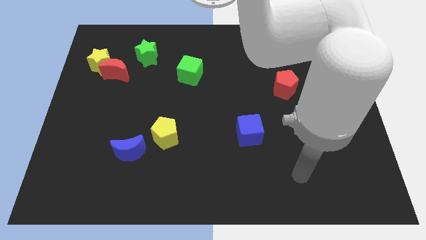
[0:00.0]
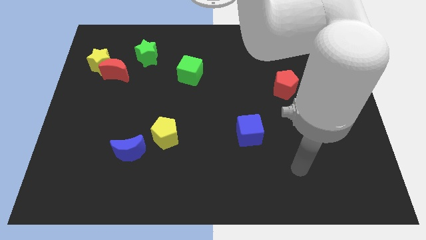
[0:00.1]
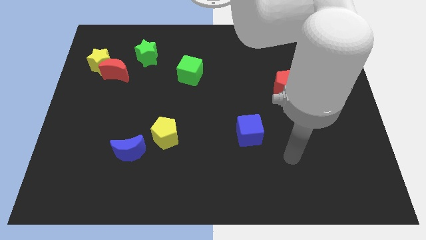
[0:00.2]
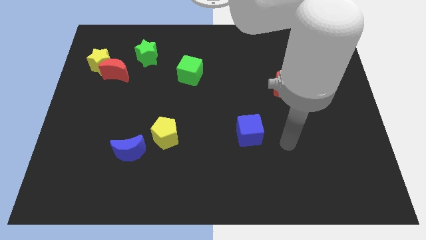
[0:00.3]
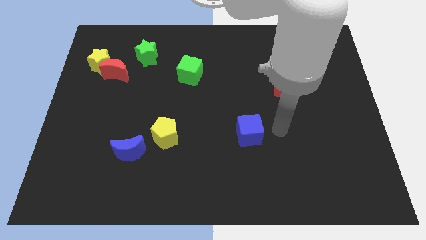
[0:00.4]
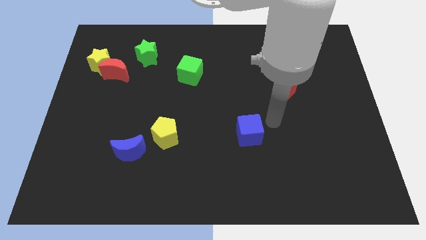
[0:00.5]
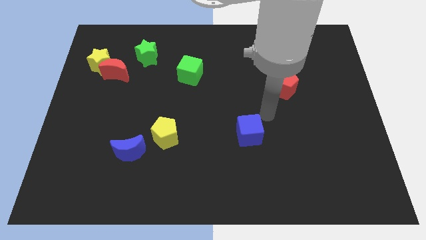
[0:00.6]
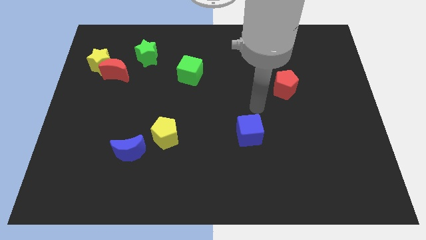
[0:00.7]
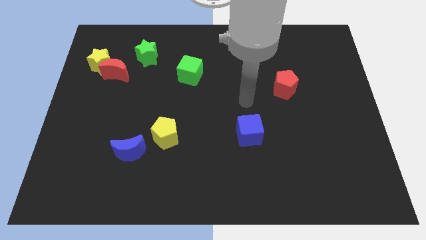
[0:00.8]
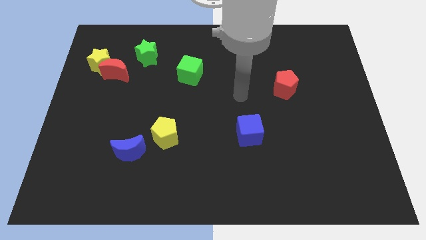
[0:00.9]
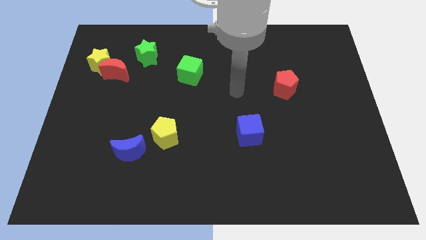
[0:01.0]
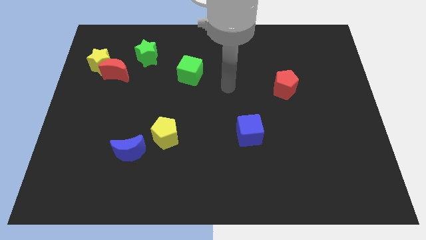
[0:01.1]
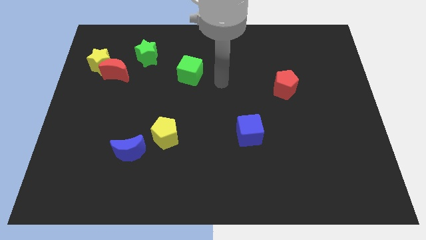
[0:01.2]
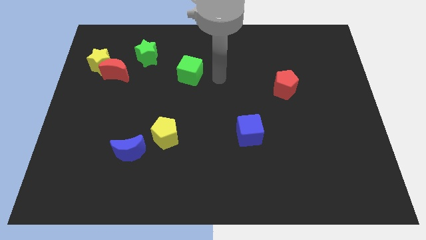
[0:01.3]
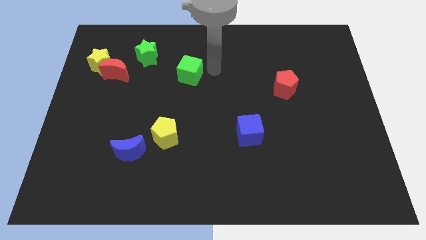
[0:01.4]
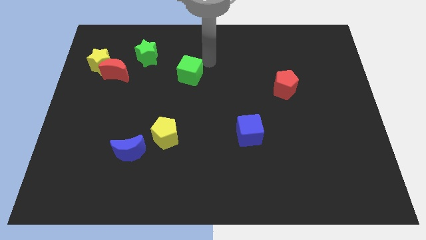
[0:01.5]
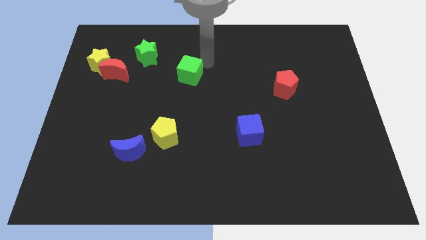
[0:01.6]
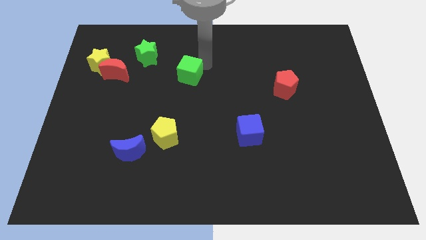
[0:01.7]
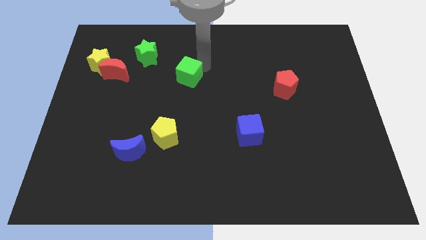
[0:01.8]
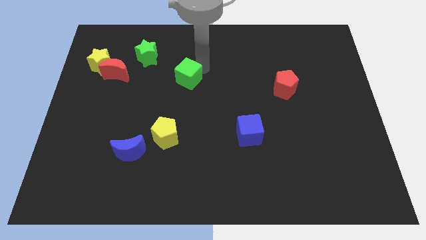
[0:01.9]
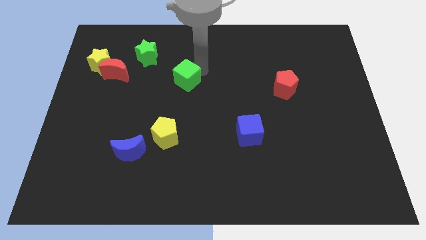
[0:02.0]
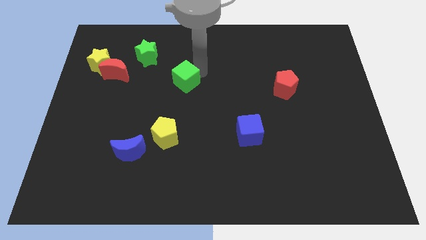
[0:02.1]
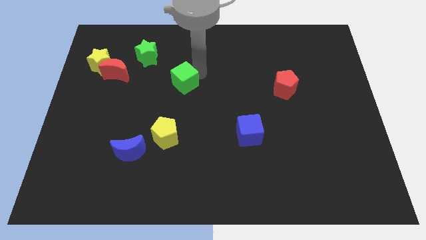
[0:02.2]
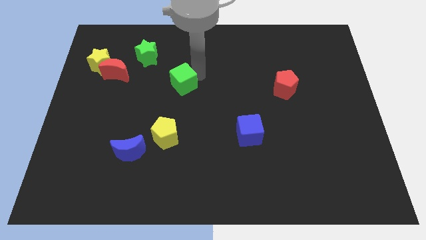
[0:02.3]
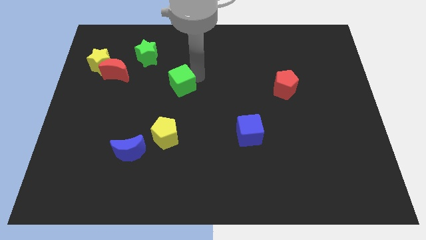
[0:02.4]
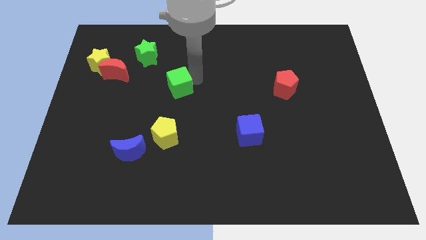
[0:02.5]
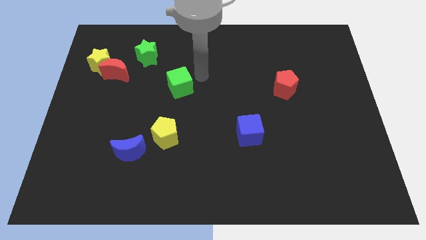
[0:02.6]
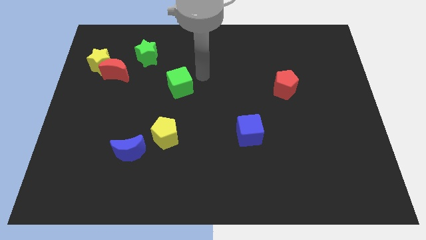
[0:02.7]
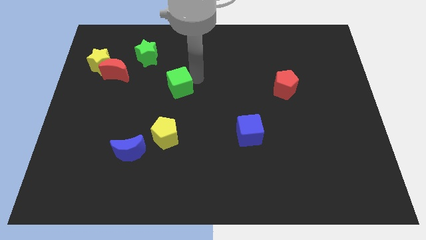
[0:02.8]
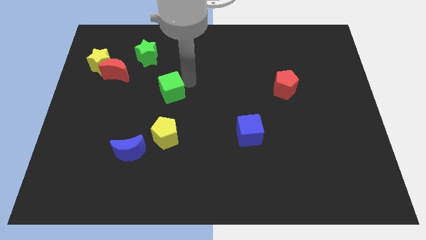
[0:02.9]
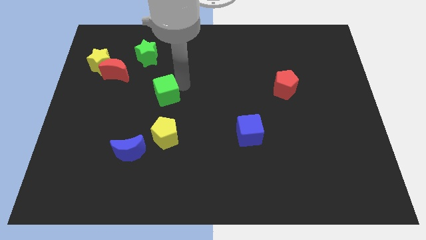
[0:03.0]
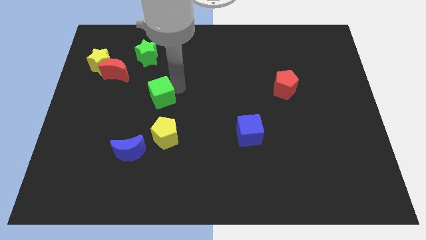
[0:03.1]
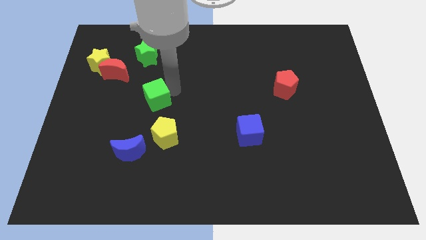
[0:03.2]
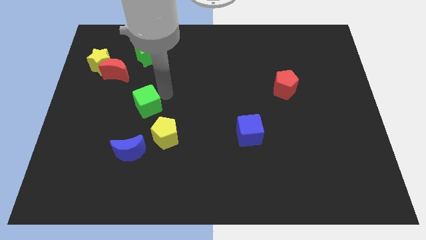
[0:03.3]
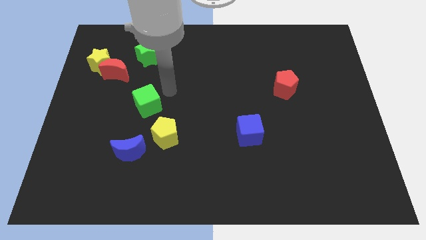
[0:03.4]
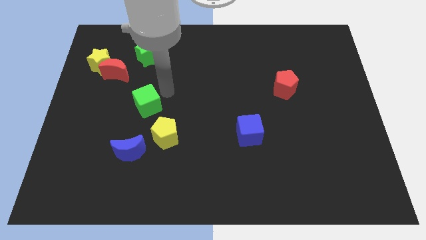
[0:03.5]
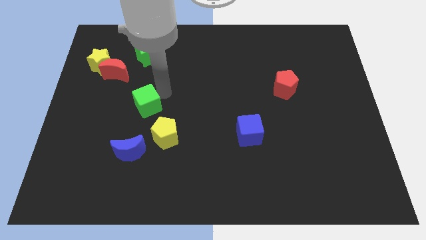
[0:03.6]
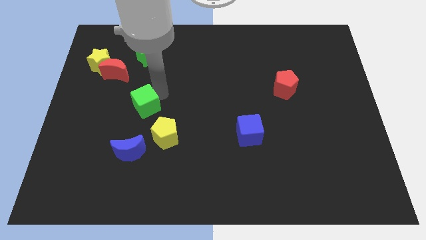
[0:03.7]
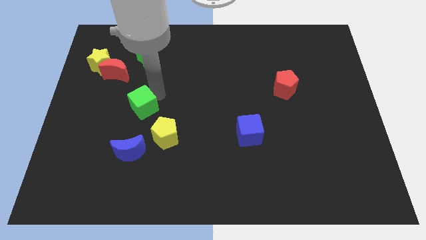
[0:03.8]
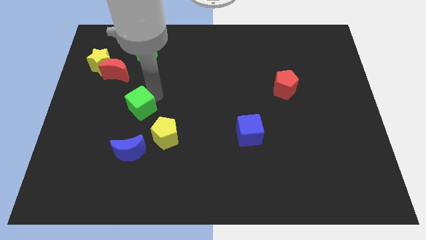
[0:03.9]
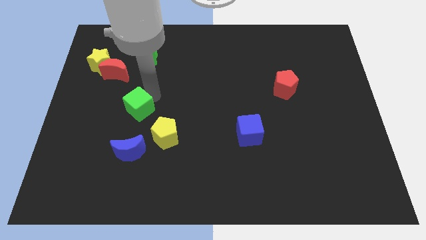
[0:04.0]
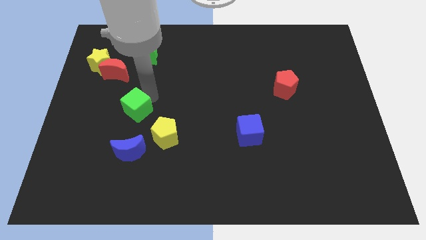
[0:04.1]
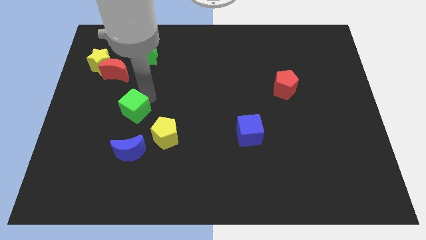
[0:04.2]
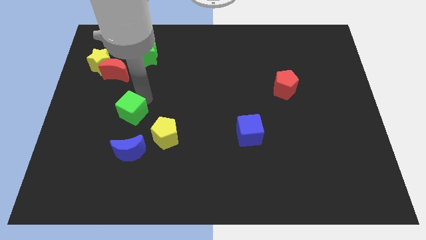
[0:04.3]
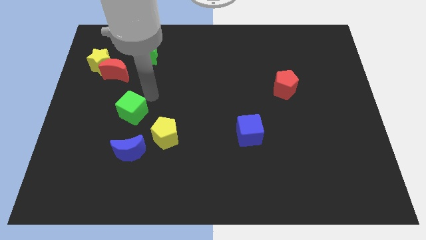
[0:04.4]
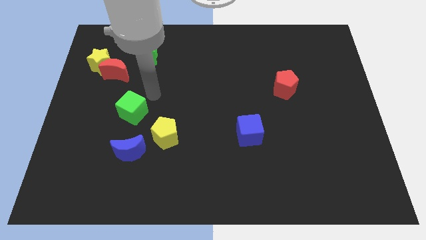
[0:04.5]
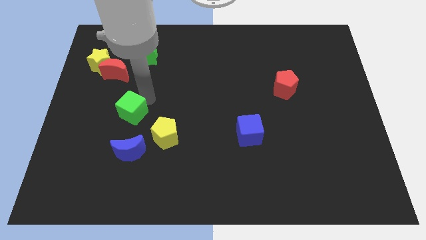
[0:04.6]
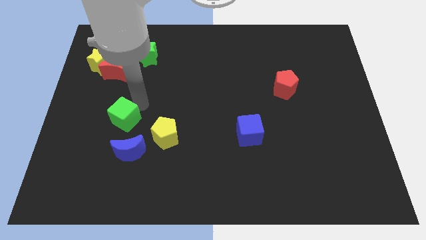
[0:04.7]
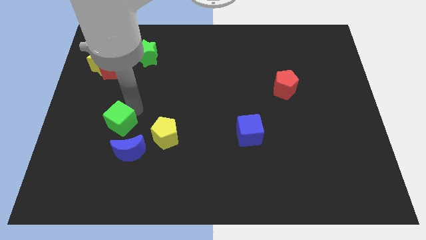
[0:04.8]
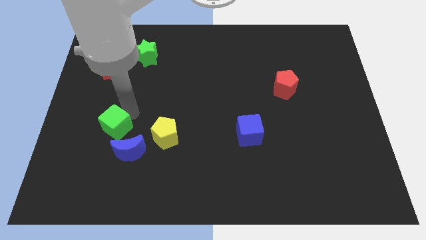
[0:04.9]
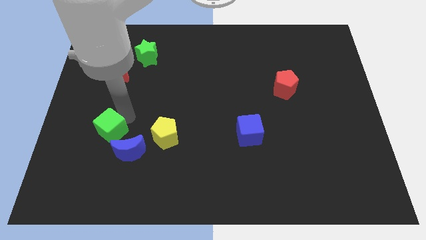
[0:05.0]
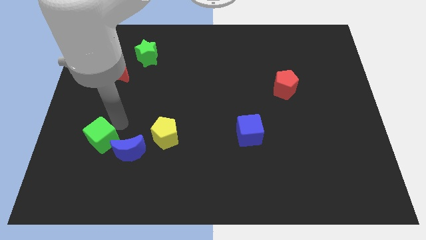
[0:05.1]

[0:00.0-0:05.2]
put the green cube left of the blue moon

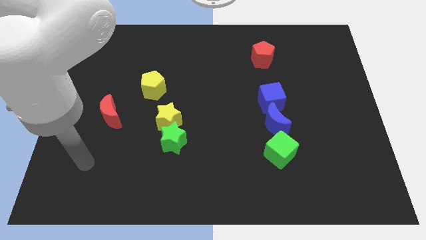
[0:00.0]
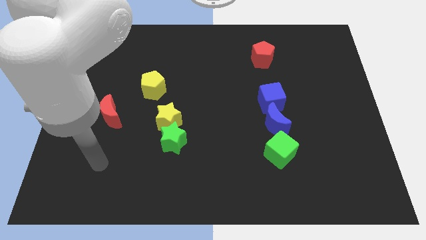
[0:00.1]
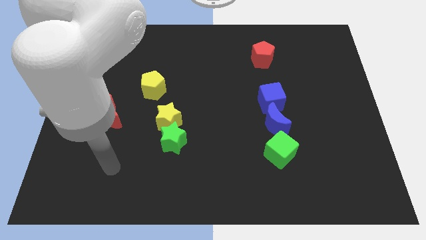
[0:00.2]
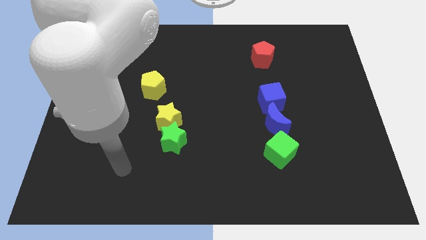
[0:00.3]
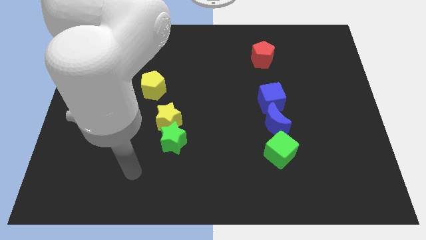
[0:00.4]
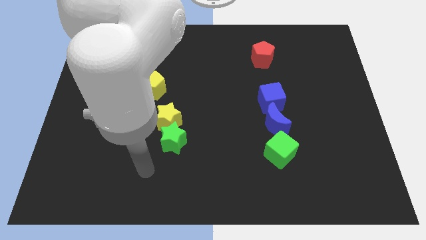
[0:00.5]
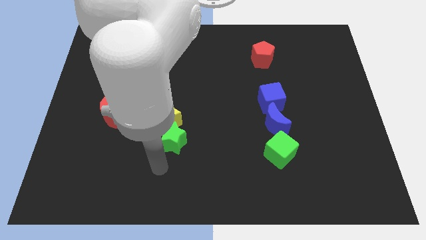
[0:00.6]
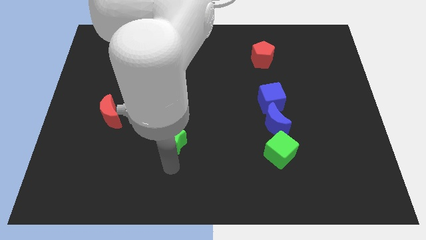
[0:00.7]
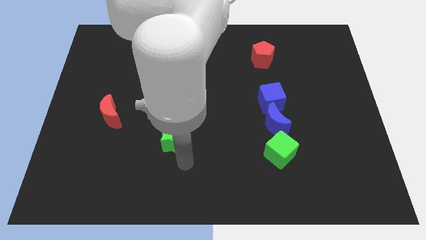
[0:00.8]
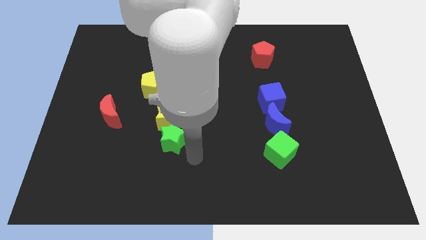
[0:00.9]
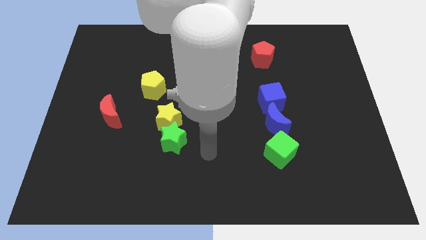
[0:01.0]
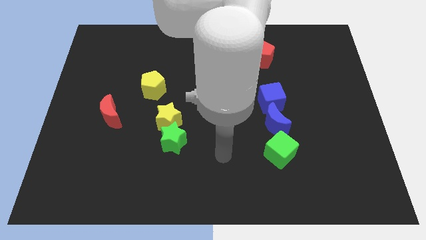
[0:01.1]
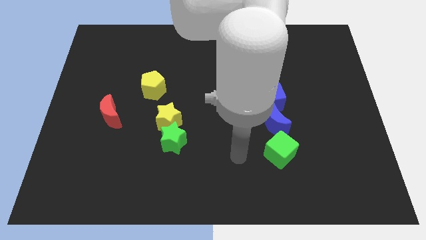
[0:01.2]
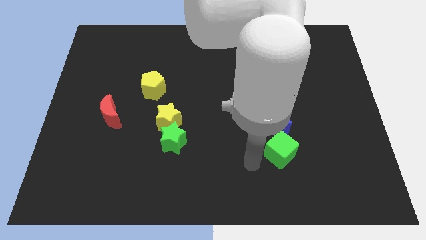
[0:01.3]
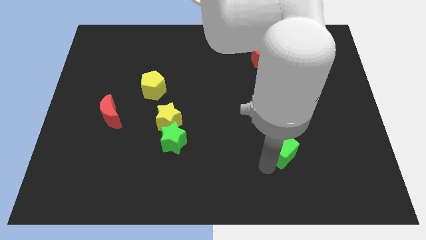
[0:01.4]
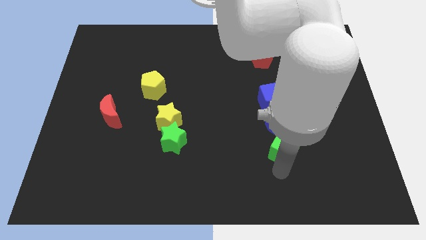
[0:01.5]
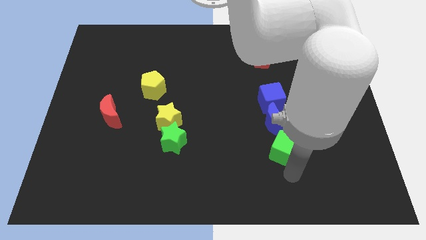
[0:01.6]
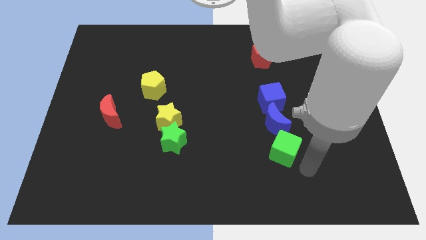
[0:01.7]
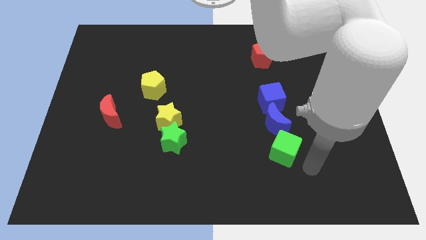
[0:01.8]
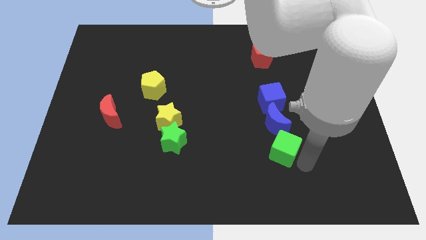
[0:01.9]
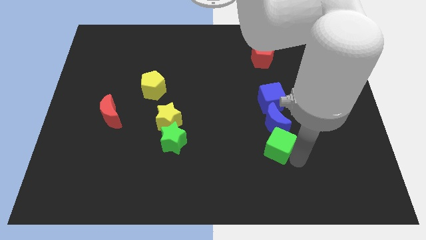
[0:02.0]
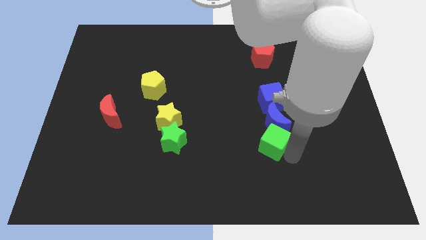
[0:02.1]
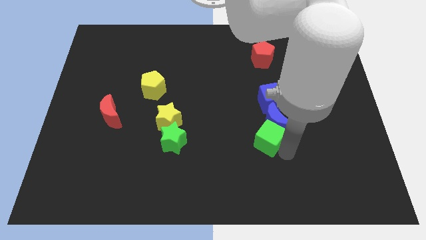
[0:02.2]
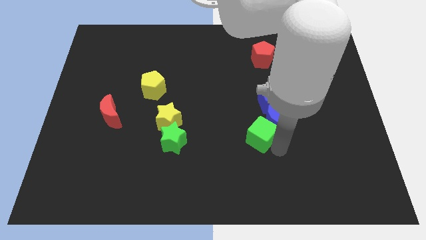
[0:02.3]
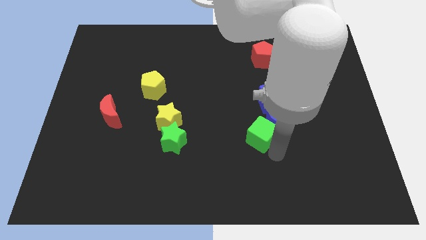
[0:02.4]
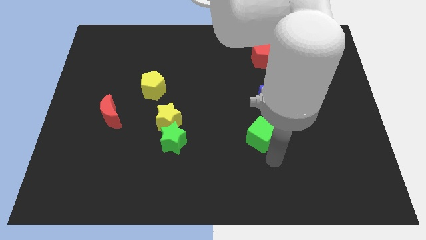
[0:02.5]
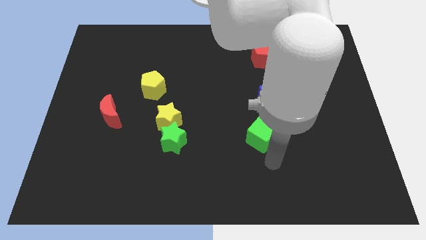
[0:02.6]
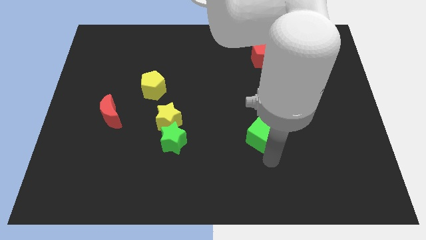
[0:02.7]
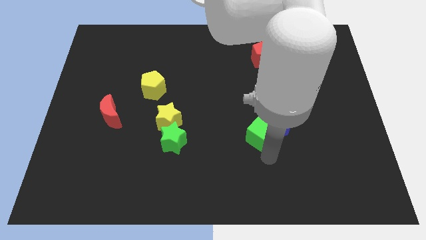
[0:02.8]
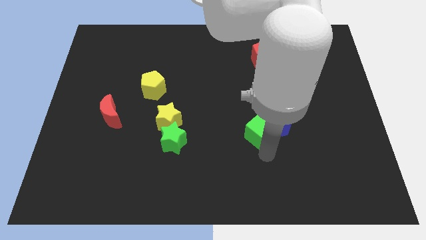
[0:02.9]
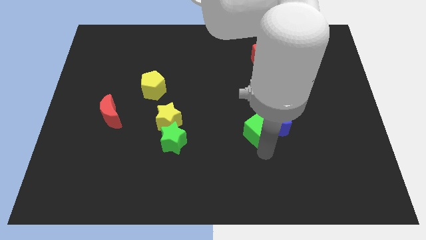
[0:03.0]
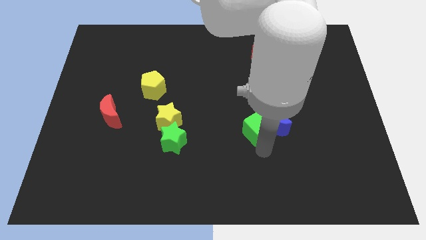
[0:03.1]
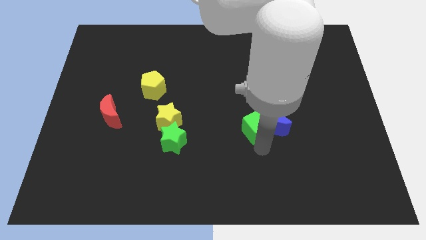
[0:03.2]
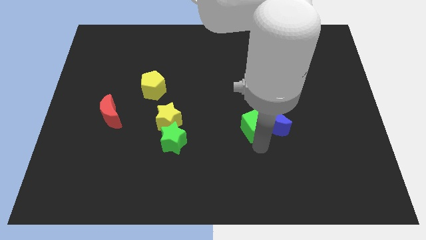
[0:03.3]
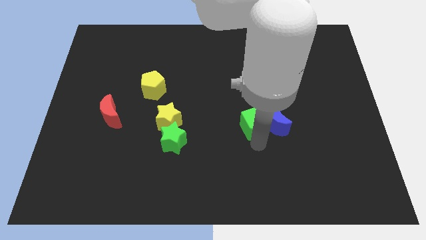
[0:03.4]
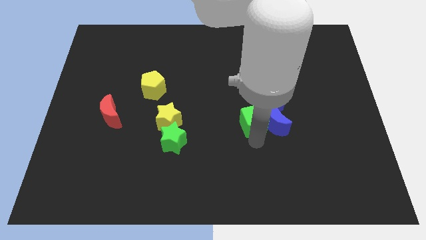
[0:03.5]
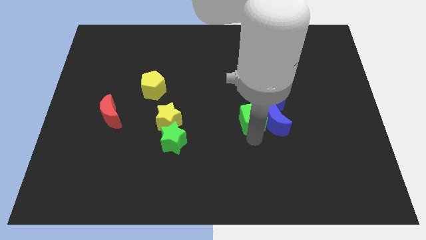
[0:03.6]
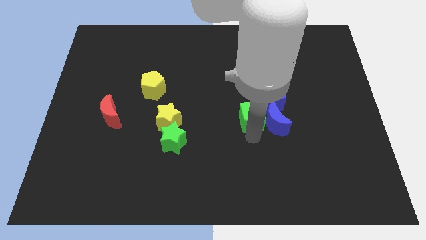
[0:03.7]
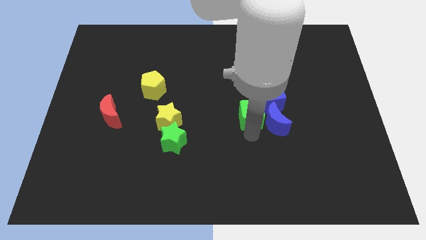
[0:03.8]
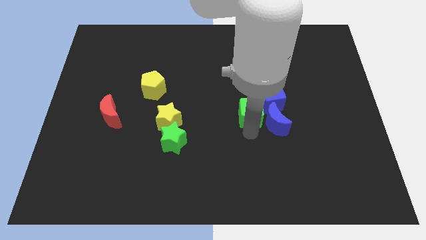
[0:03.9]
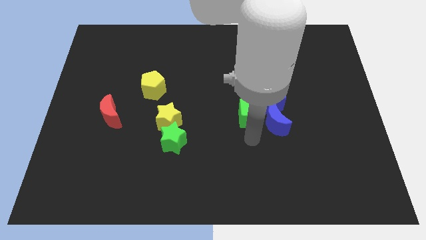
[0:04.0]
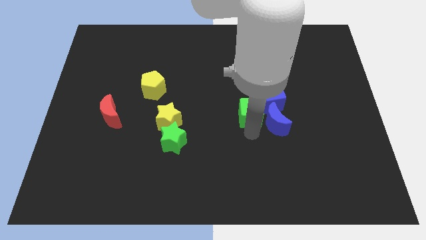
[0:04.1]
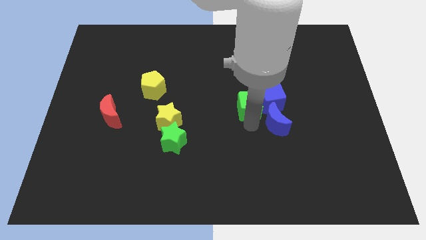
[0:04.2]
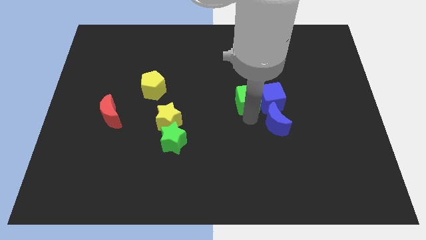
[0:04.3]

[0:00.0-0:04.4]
slide the green cube diagonally up and to the left of the blue cube
